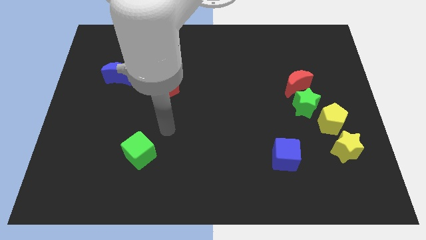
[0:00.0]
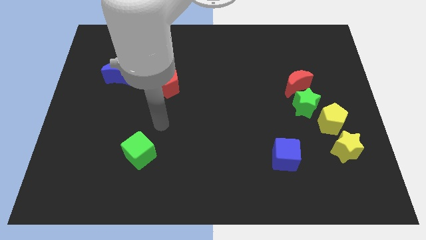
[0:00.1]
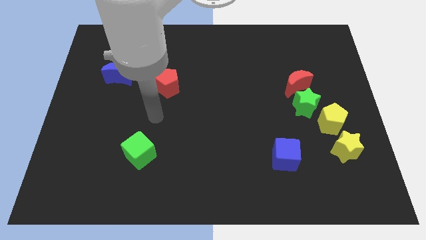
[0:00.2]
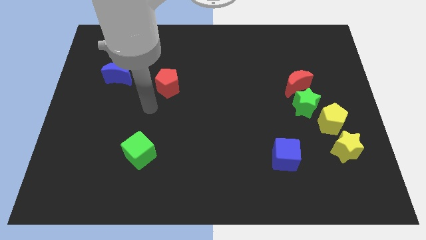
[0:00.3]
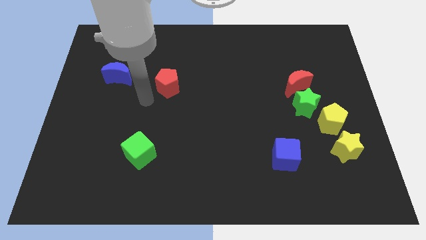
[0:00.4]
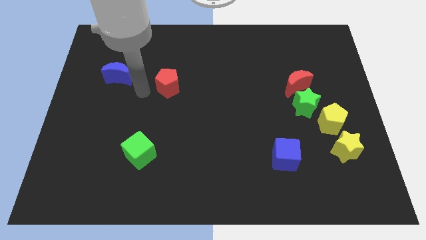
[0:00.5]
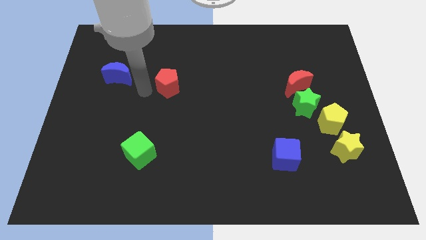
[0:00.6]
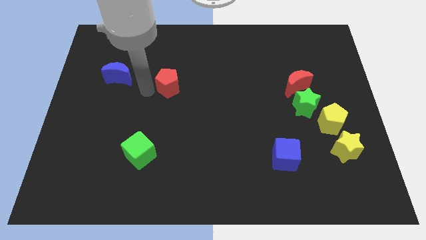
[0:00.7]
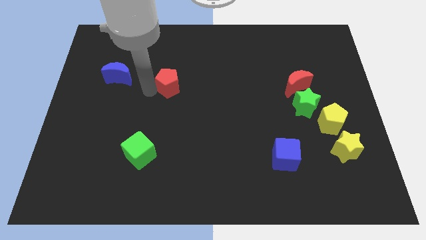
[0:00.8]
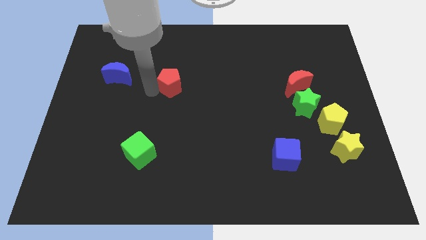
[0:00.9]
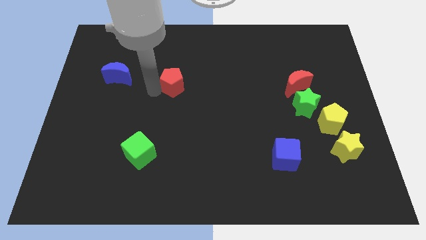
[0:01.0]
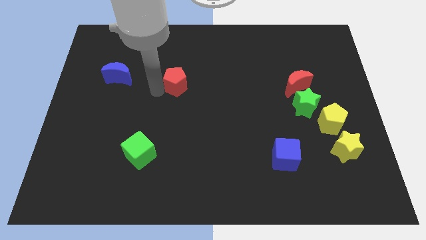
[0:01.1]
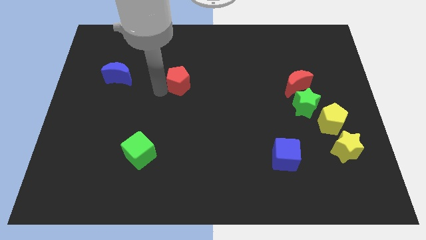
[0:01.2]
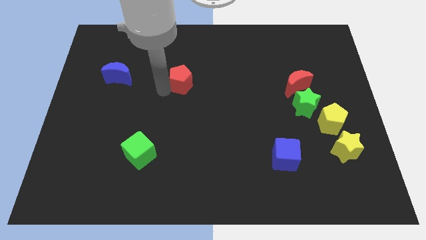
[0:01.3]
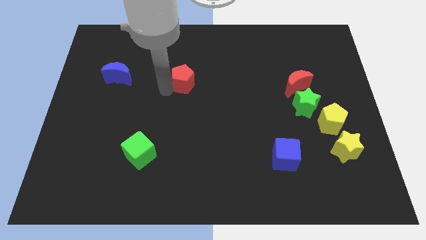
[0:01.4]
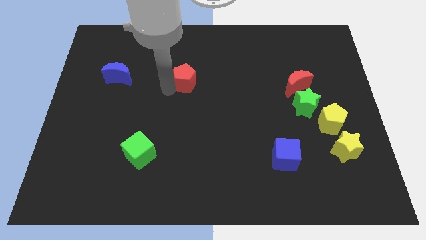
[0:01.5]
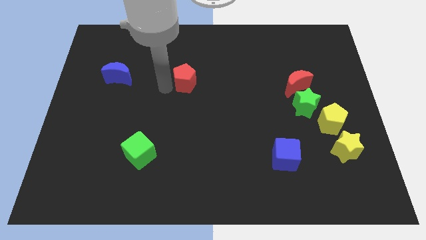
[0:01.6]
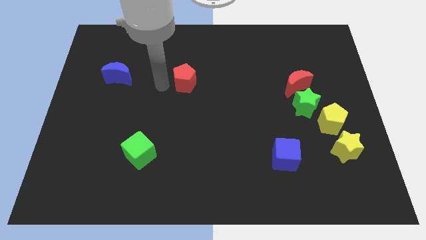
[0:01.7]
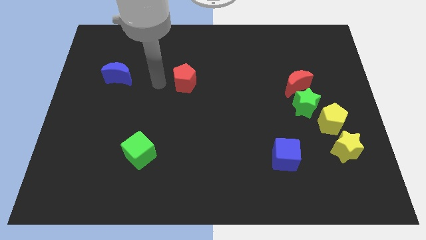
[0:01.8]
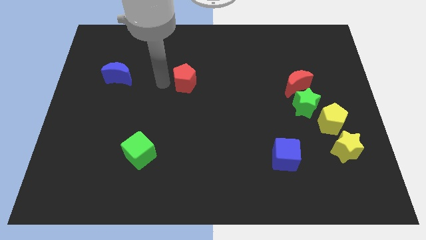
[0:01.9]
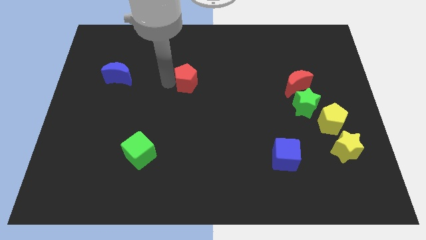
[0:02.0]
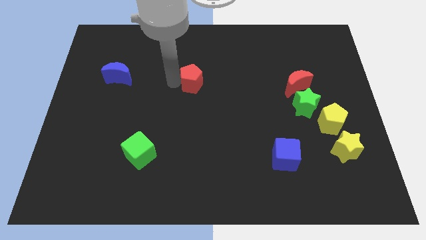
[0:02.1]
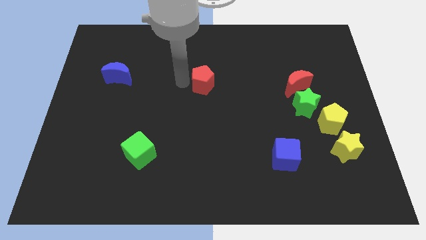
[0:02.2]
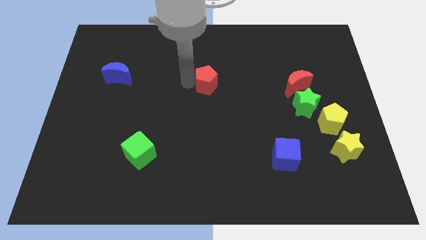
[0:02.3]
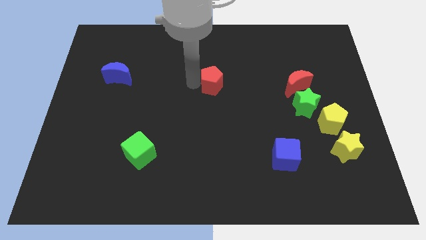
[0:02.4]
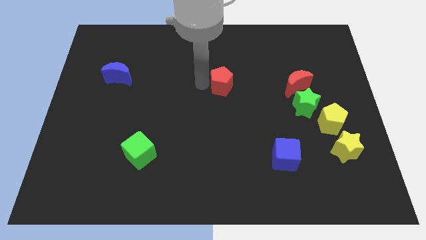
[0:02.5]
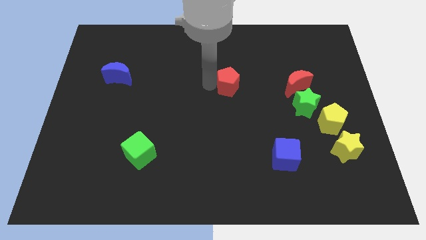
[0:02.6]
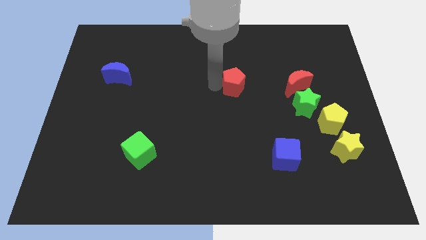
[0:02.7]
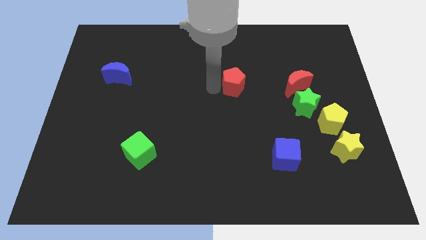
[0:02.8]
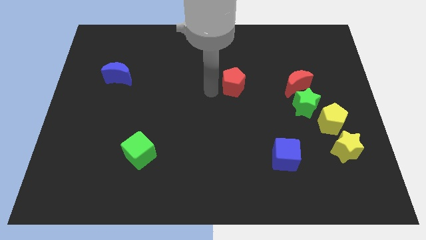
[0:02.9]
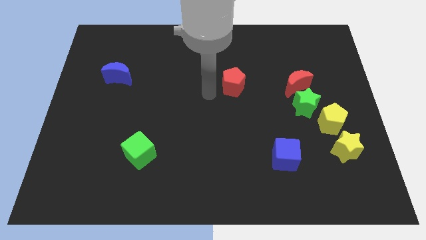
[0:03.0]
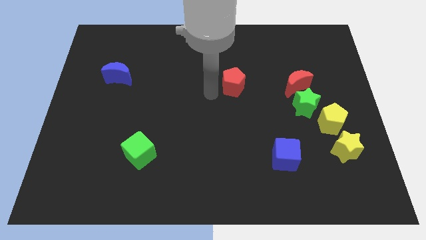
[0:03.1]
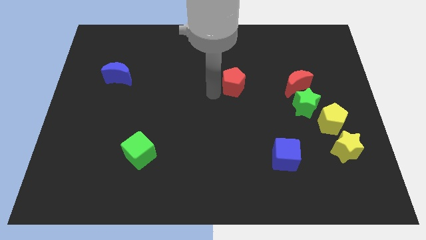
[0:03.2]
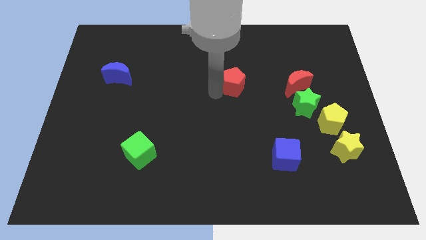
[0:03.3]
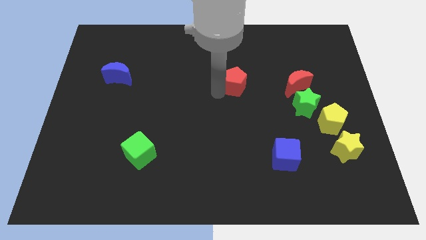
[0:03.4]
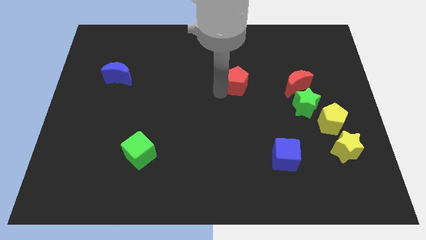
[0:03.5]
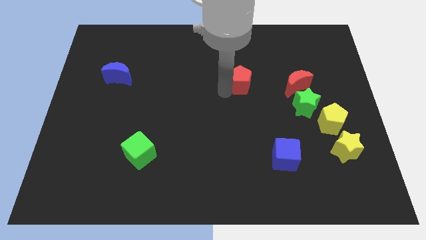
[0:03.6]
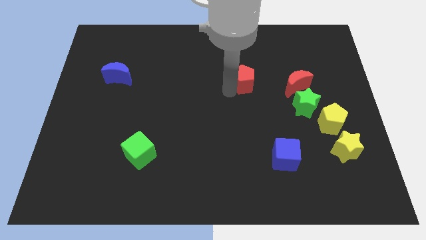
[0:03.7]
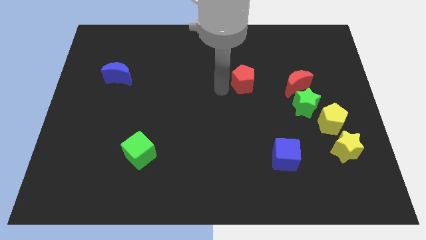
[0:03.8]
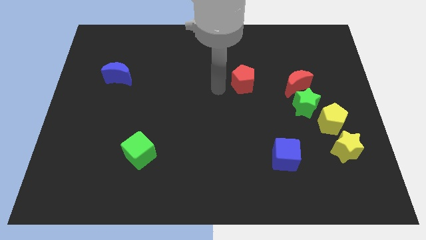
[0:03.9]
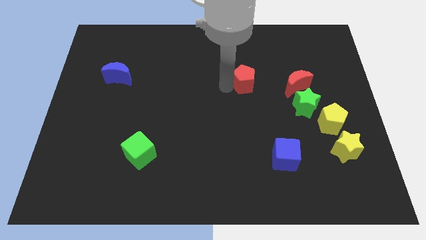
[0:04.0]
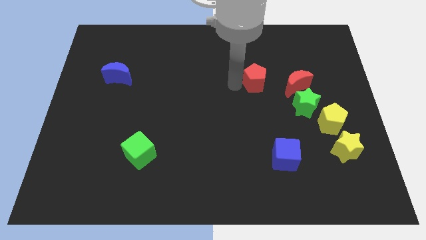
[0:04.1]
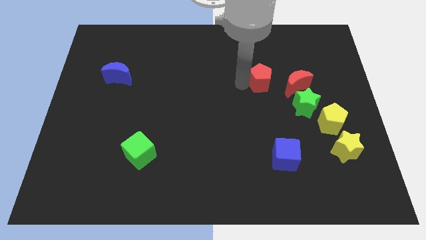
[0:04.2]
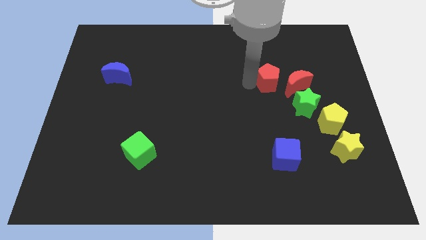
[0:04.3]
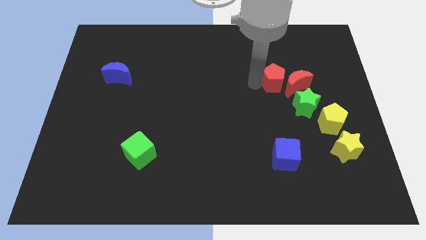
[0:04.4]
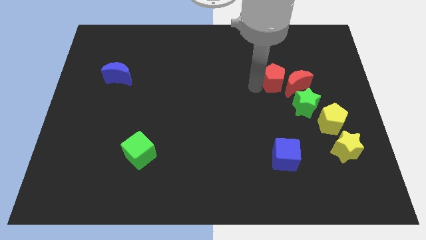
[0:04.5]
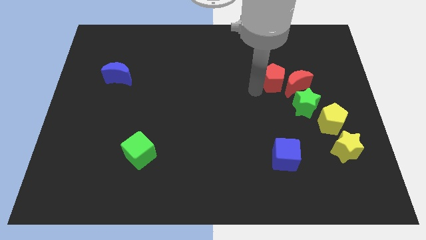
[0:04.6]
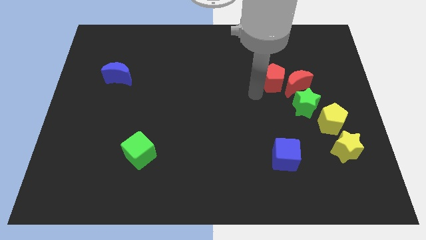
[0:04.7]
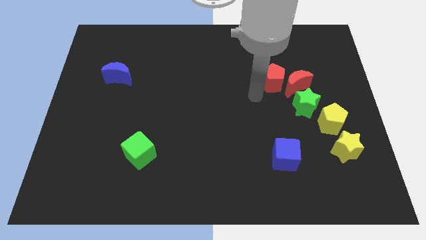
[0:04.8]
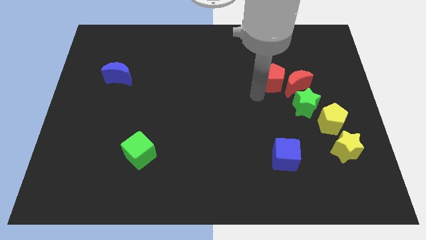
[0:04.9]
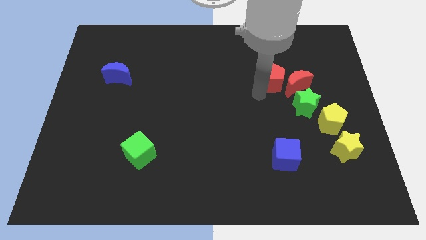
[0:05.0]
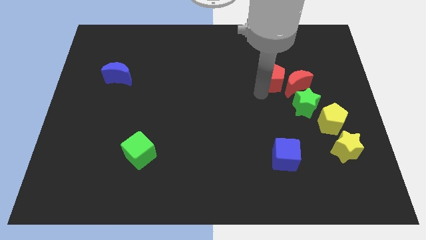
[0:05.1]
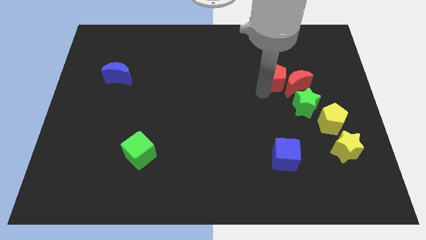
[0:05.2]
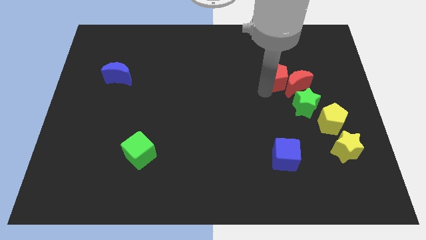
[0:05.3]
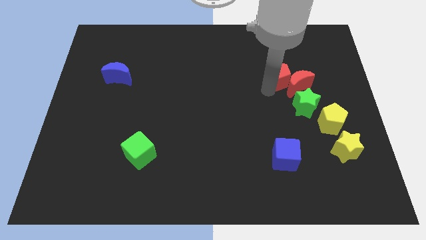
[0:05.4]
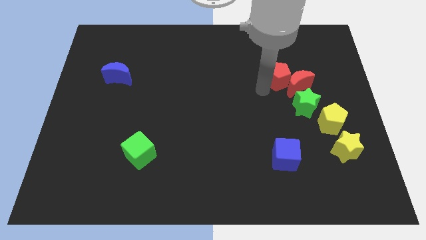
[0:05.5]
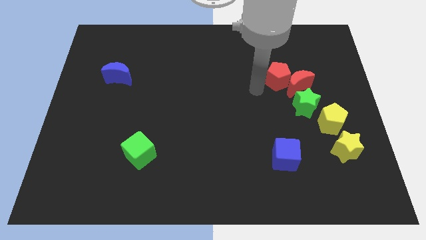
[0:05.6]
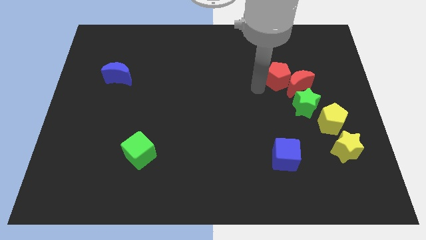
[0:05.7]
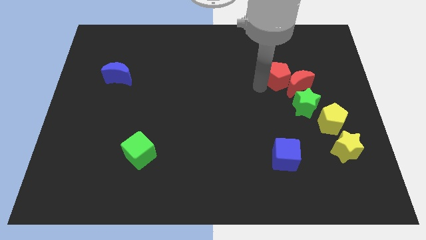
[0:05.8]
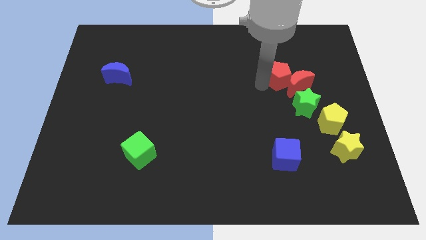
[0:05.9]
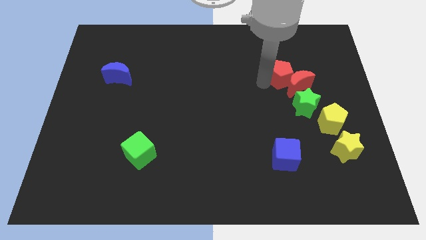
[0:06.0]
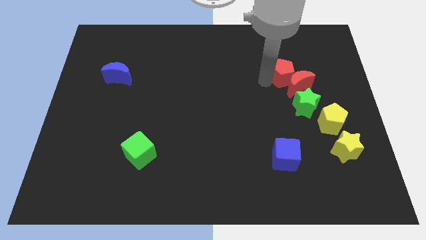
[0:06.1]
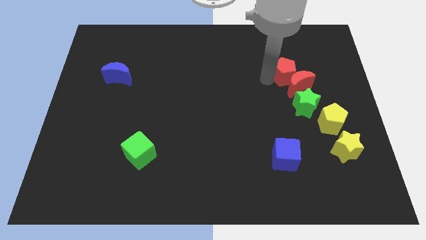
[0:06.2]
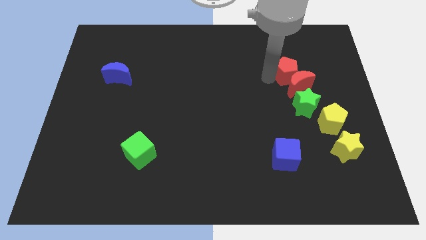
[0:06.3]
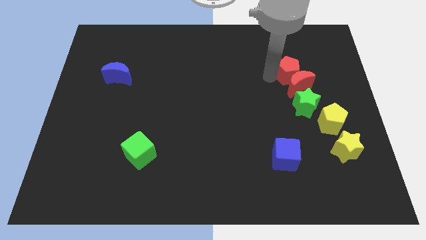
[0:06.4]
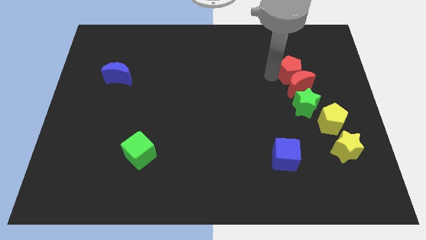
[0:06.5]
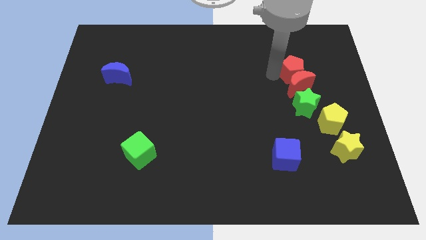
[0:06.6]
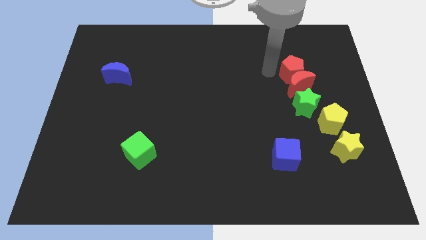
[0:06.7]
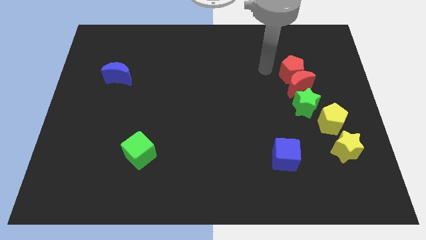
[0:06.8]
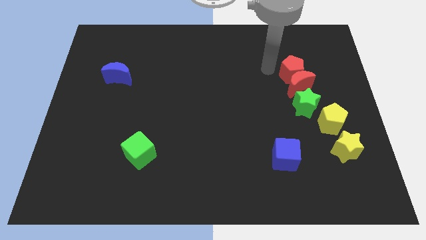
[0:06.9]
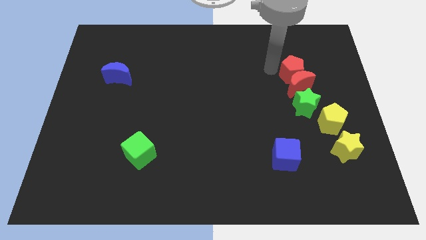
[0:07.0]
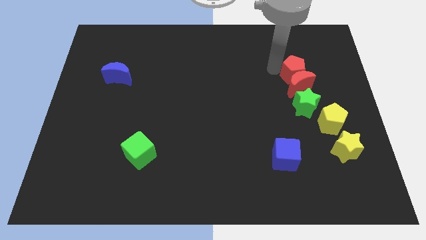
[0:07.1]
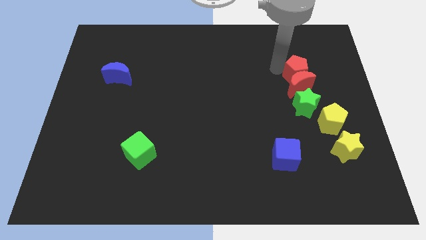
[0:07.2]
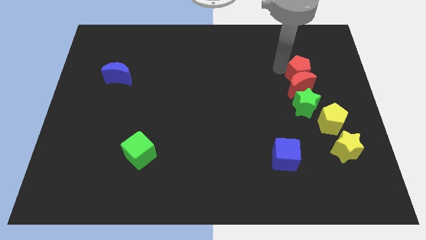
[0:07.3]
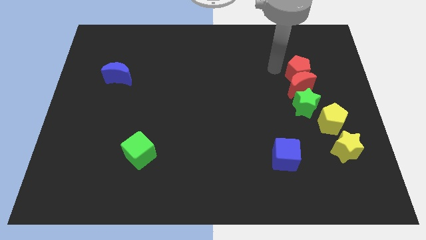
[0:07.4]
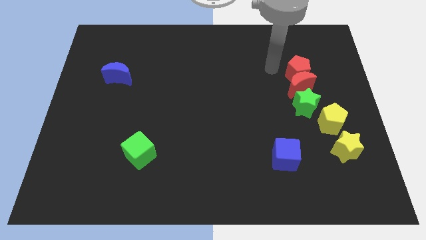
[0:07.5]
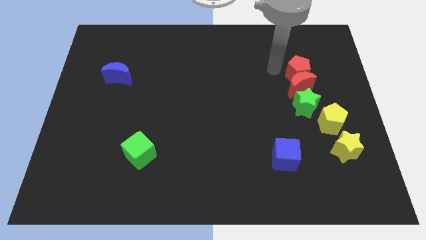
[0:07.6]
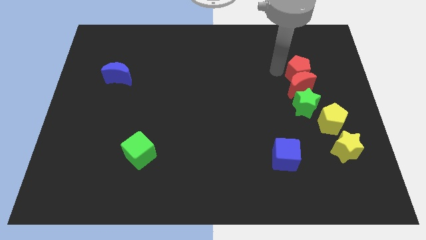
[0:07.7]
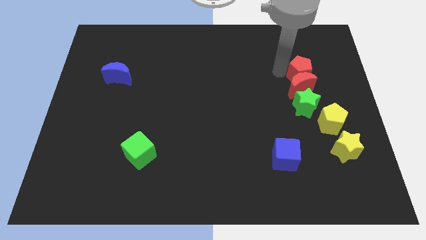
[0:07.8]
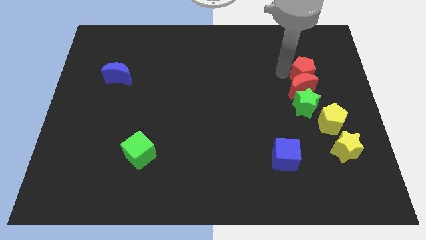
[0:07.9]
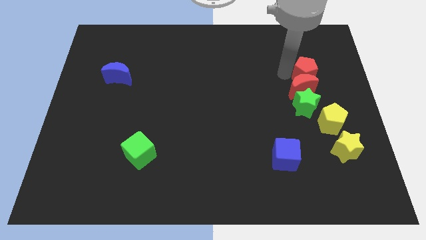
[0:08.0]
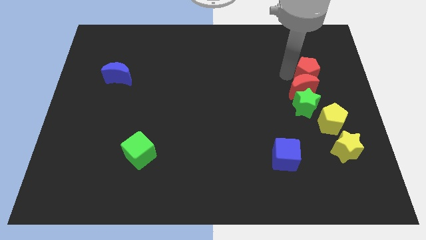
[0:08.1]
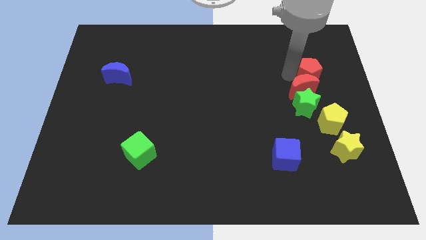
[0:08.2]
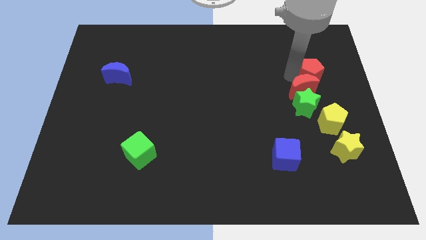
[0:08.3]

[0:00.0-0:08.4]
slide the red pentagon to the top right of the green star
